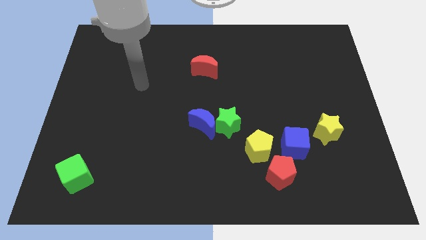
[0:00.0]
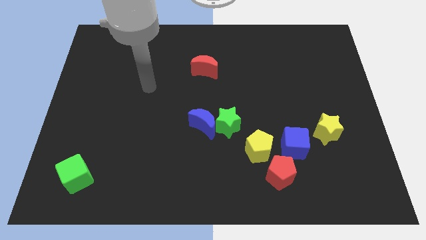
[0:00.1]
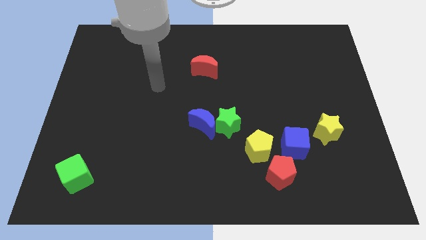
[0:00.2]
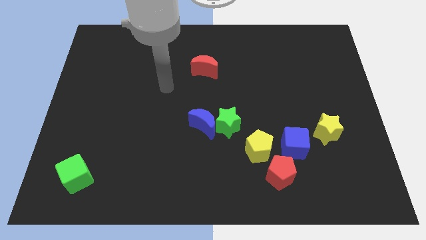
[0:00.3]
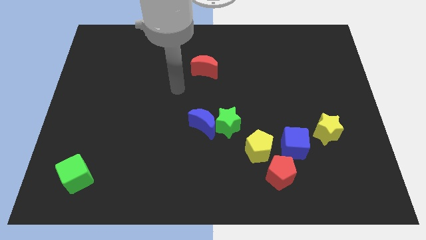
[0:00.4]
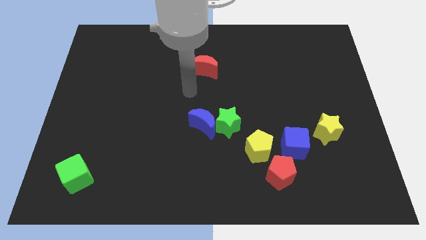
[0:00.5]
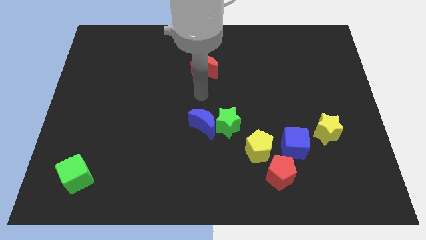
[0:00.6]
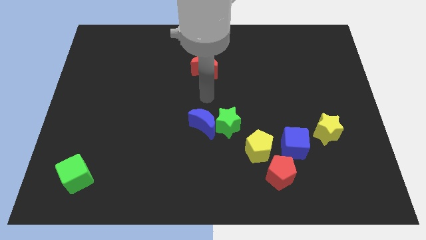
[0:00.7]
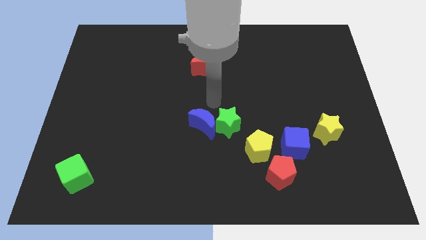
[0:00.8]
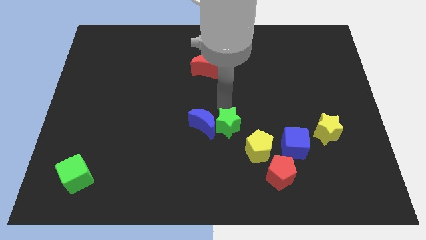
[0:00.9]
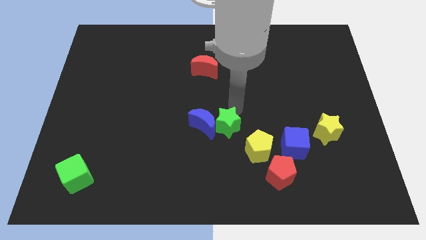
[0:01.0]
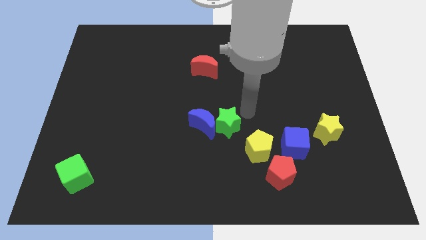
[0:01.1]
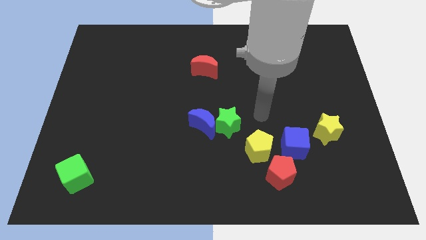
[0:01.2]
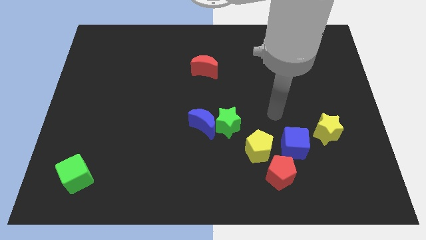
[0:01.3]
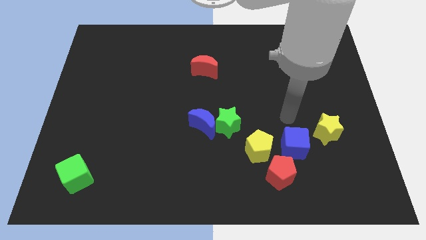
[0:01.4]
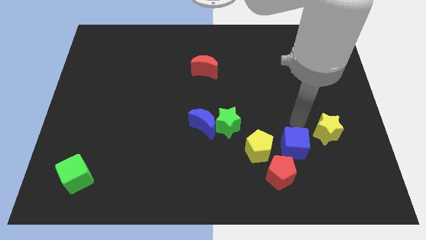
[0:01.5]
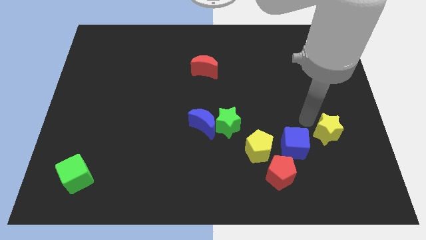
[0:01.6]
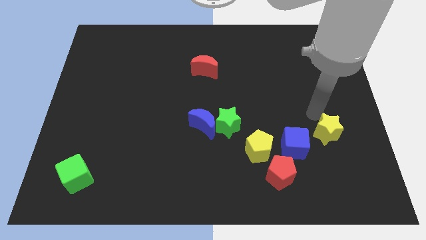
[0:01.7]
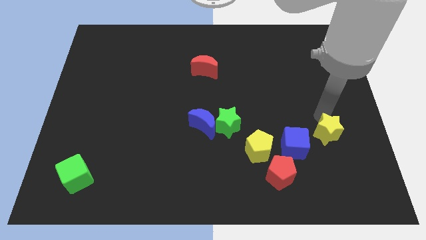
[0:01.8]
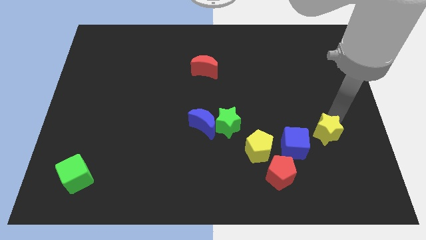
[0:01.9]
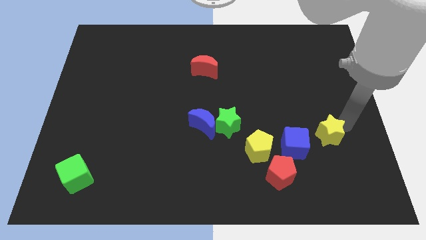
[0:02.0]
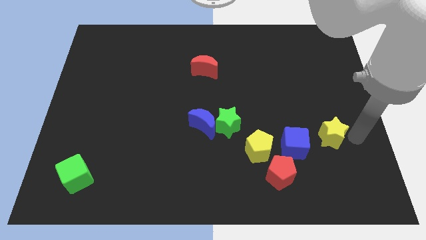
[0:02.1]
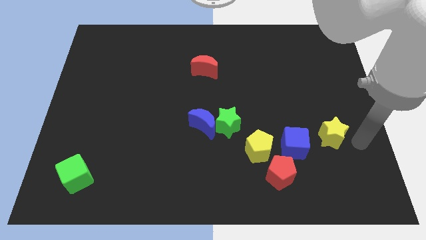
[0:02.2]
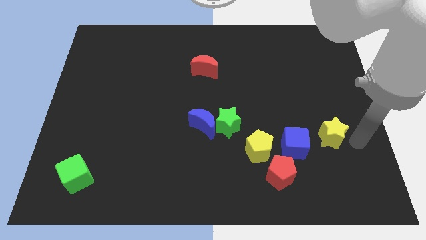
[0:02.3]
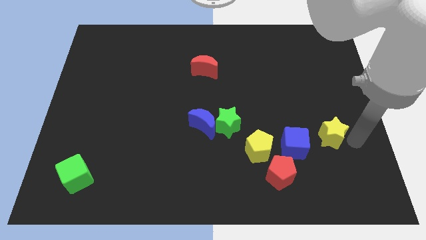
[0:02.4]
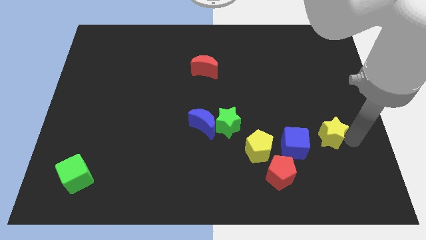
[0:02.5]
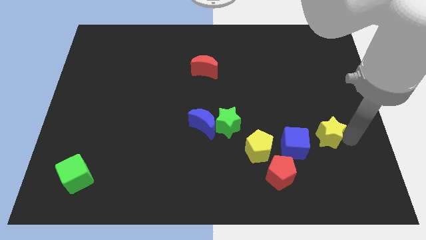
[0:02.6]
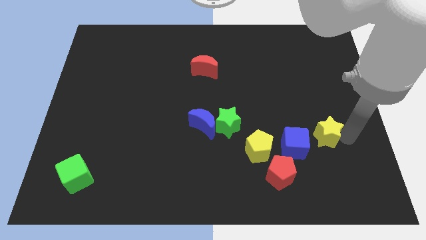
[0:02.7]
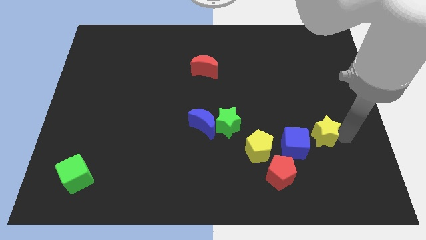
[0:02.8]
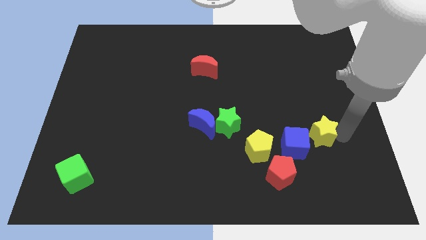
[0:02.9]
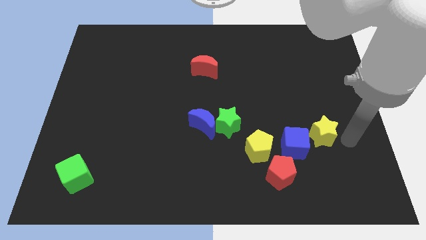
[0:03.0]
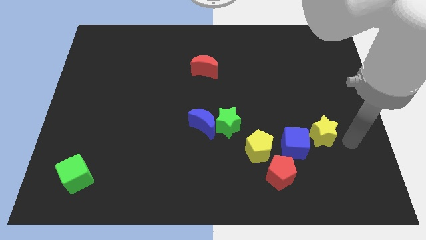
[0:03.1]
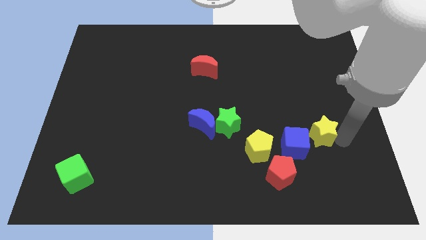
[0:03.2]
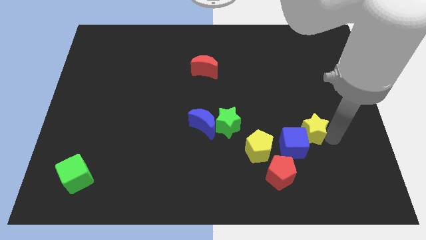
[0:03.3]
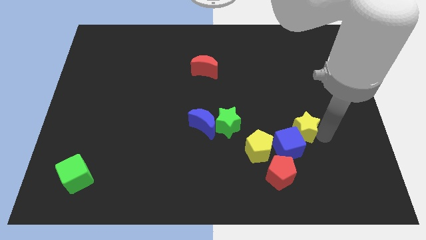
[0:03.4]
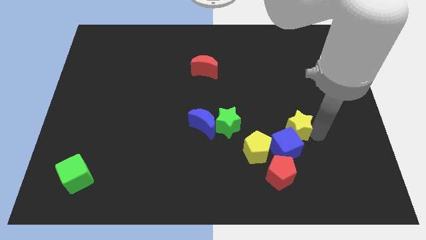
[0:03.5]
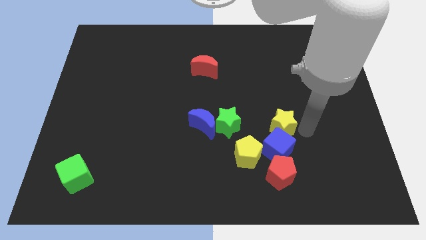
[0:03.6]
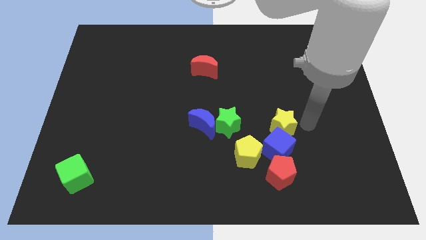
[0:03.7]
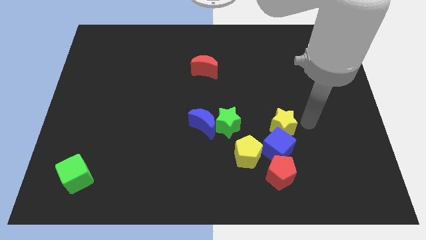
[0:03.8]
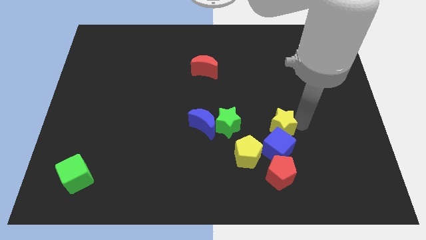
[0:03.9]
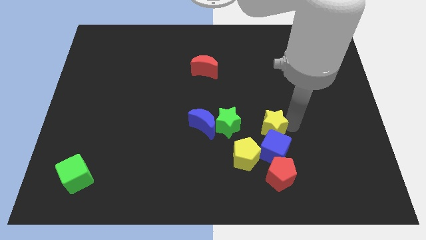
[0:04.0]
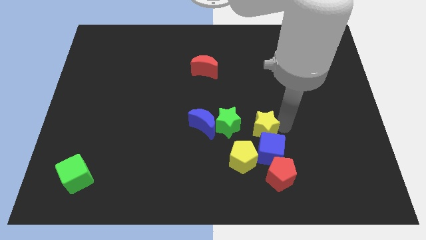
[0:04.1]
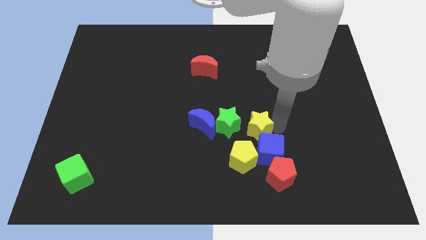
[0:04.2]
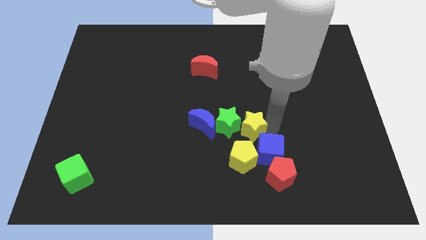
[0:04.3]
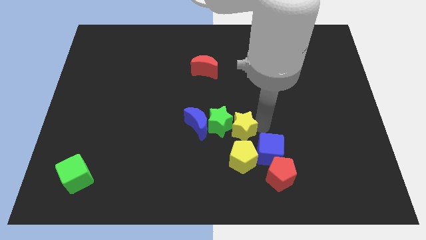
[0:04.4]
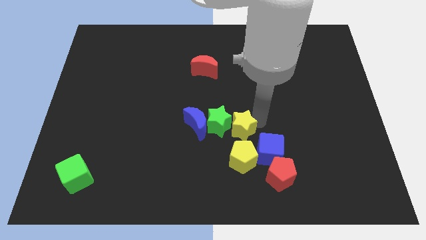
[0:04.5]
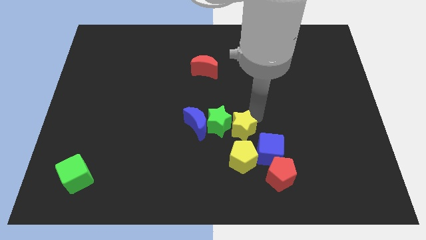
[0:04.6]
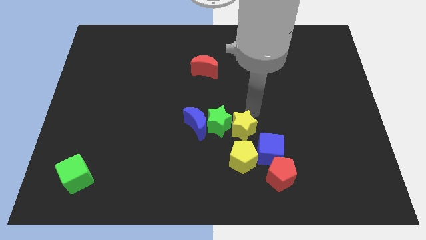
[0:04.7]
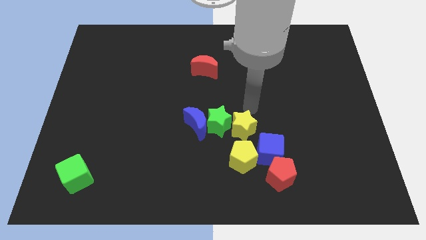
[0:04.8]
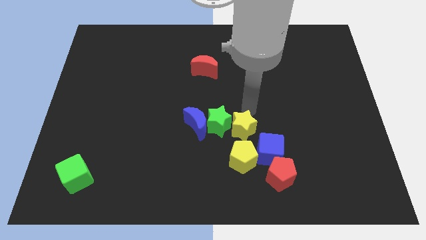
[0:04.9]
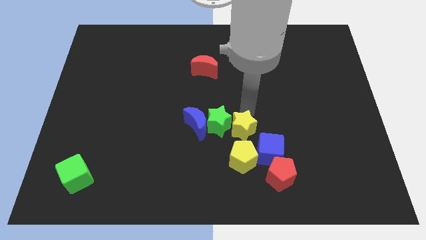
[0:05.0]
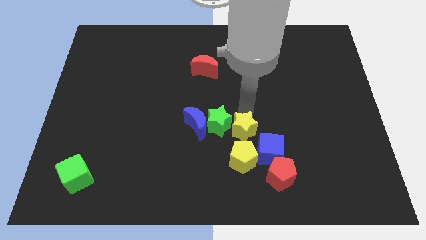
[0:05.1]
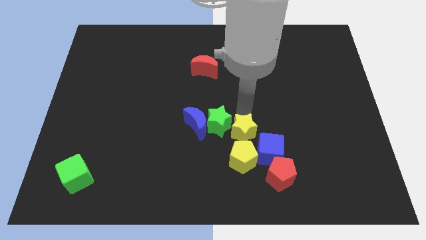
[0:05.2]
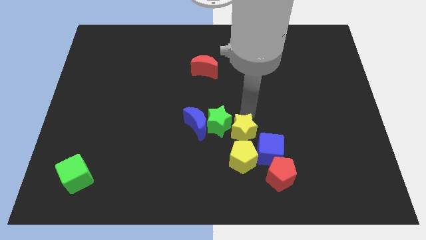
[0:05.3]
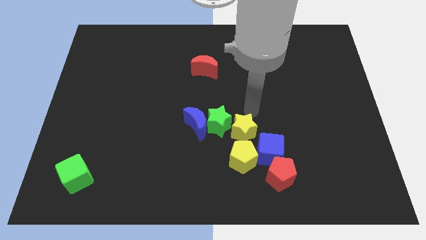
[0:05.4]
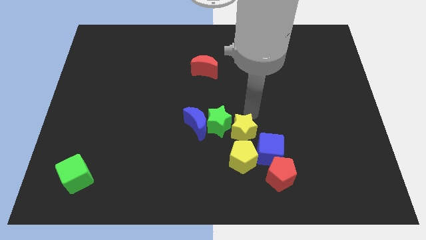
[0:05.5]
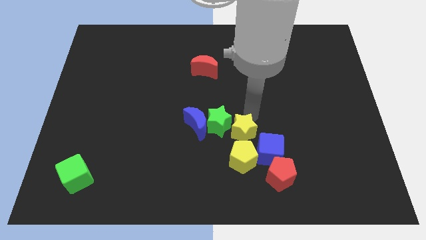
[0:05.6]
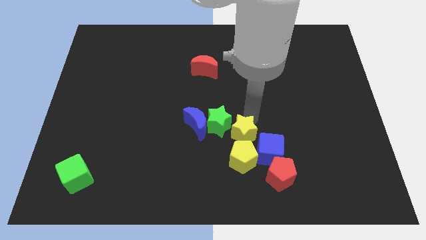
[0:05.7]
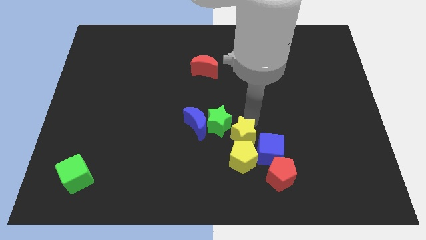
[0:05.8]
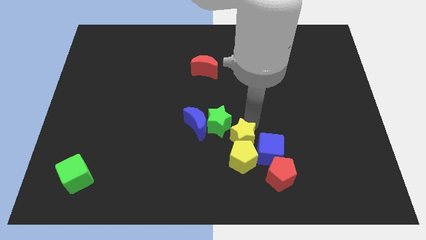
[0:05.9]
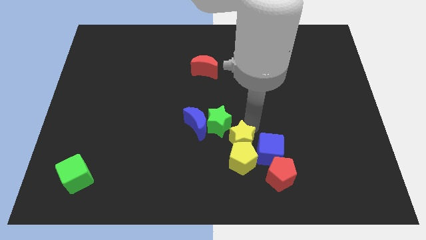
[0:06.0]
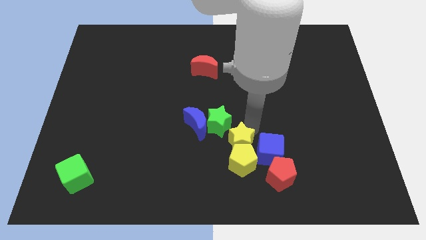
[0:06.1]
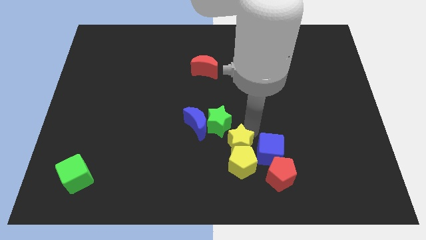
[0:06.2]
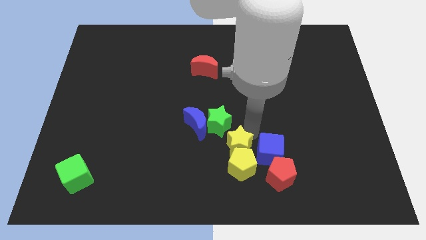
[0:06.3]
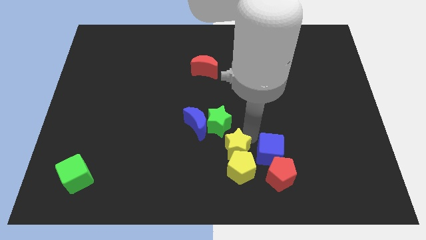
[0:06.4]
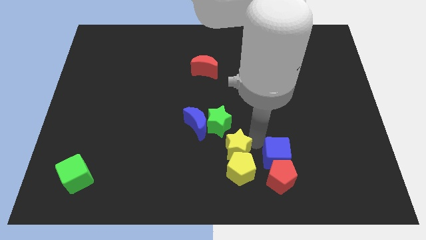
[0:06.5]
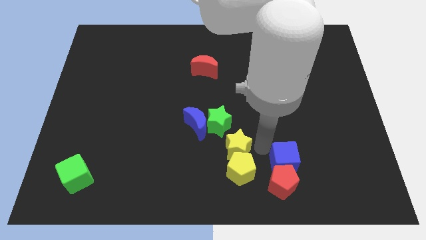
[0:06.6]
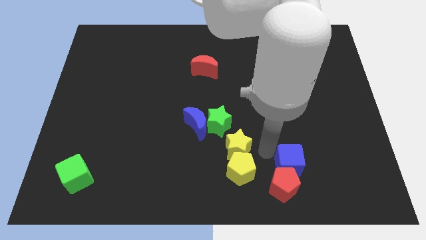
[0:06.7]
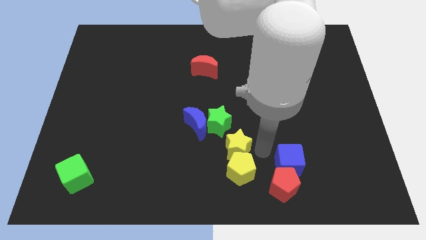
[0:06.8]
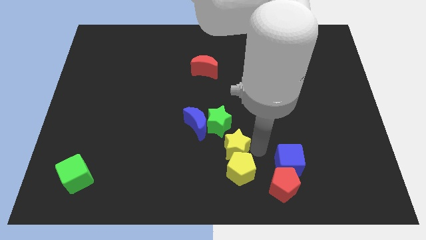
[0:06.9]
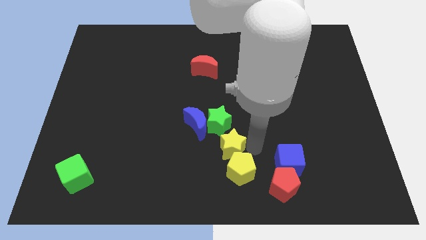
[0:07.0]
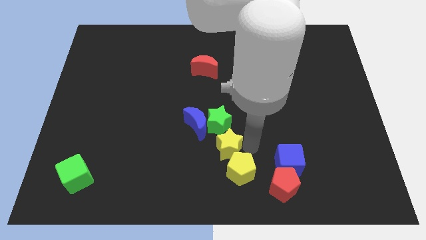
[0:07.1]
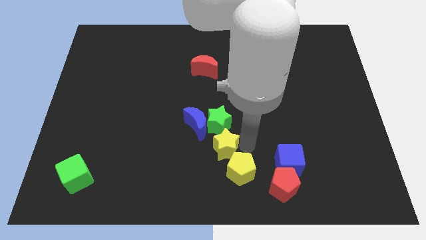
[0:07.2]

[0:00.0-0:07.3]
put the yellow star diagonally down and to the left of the green star
